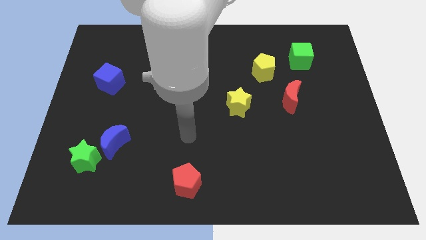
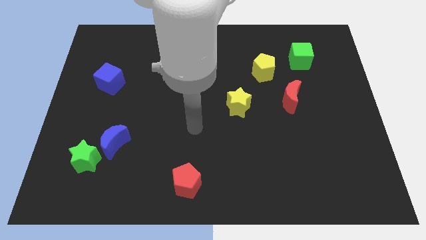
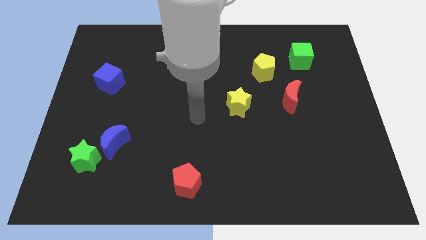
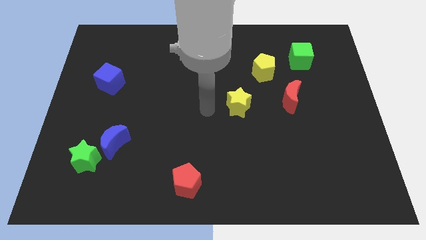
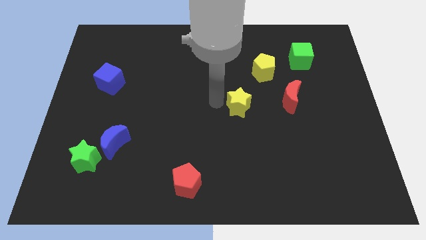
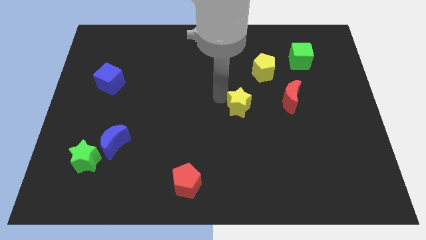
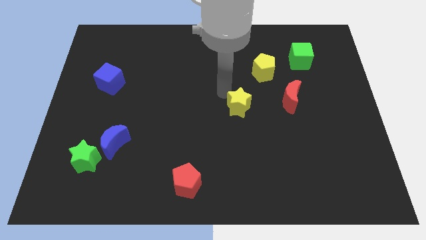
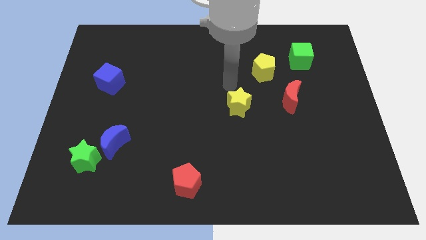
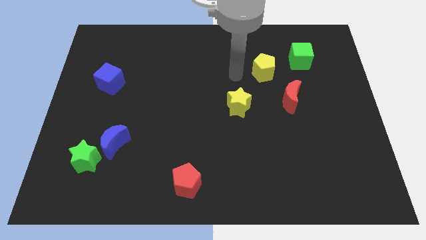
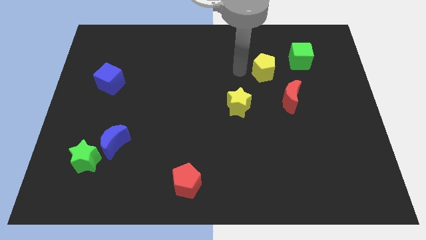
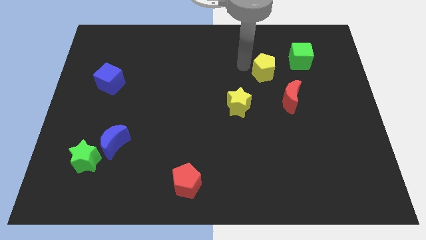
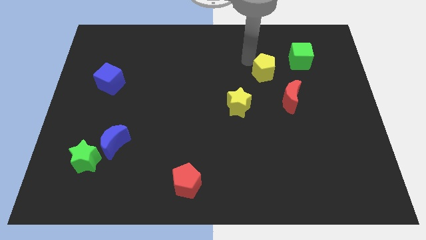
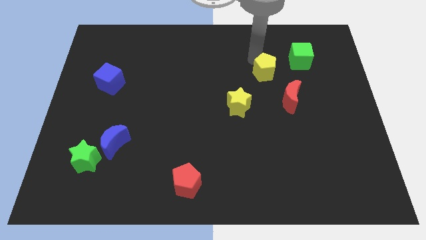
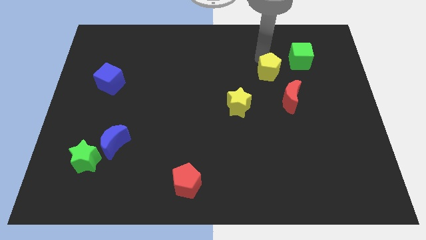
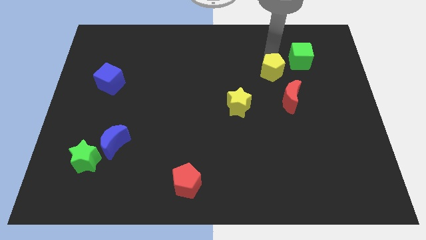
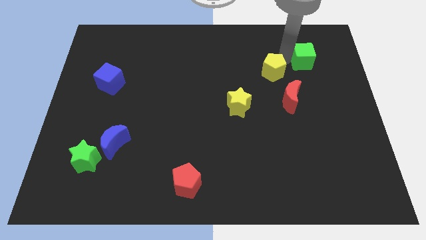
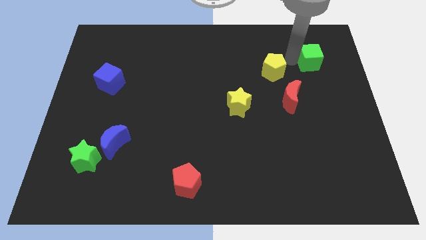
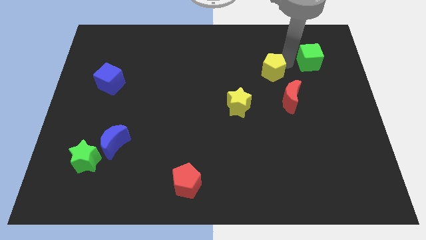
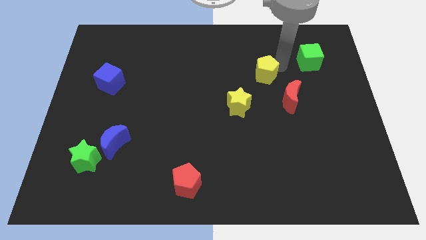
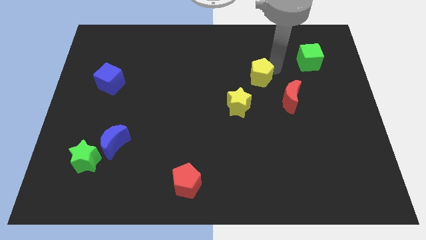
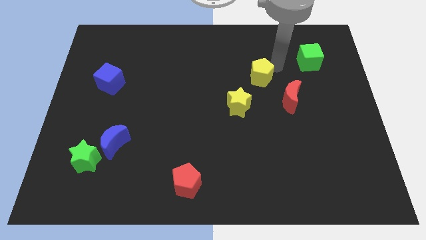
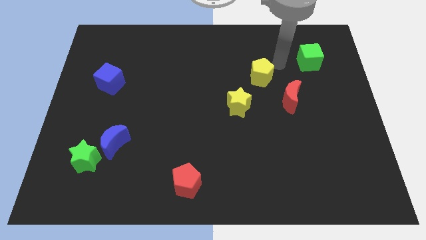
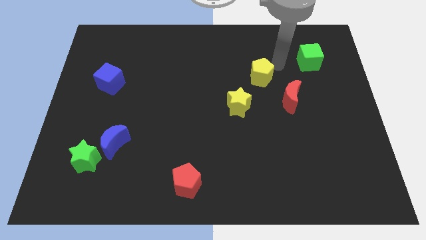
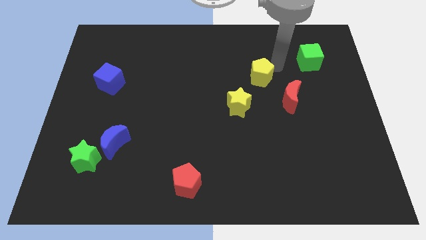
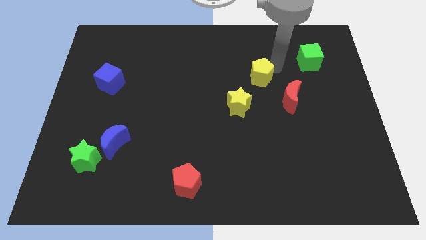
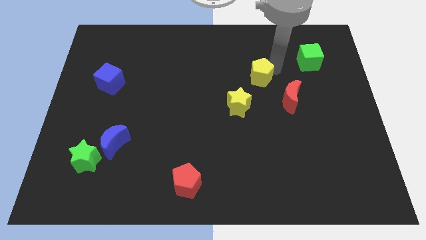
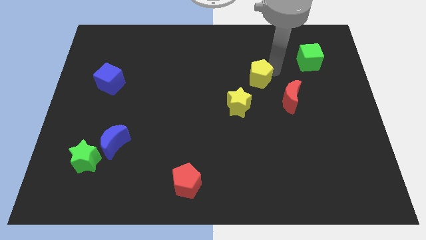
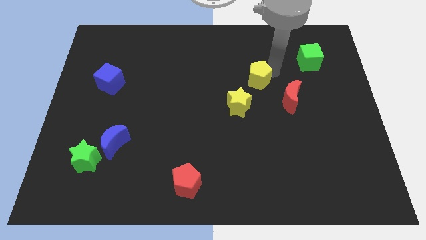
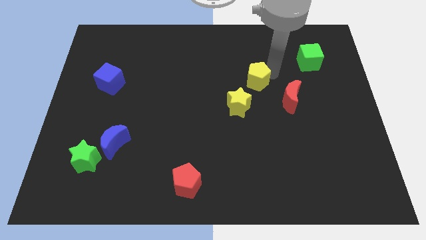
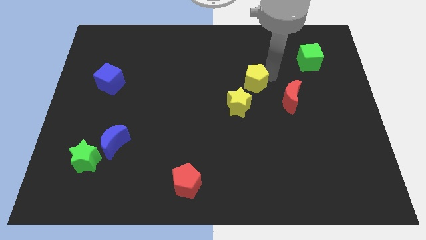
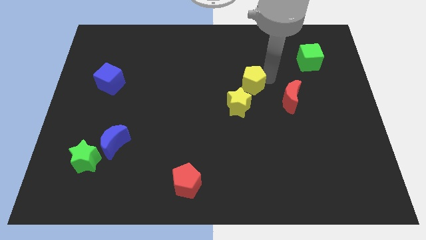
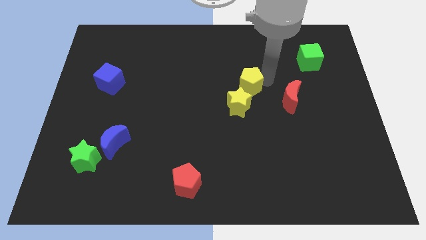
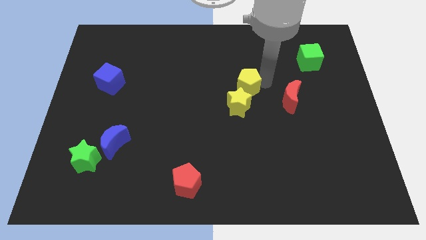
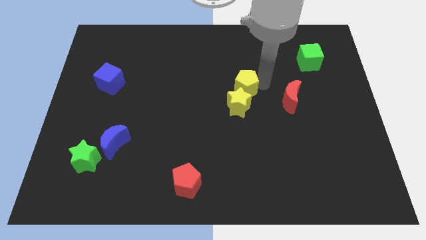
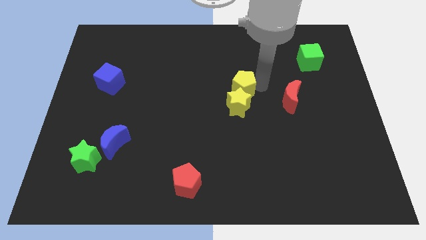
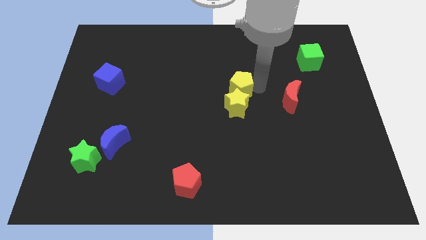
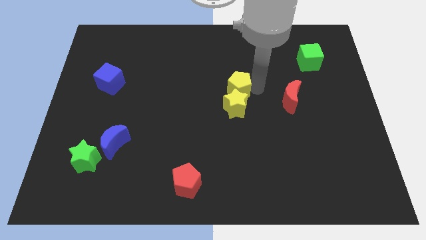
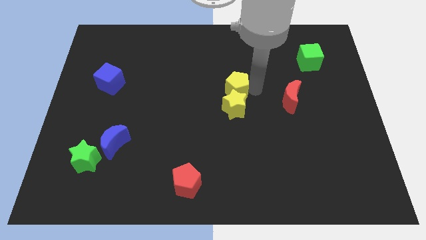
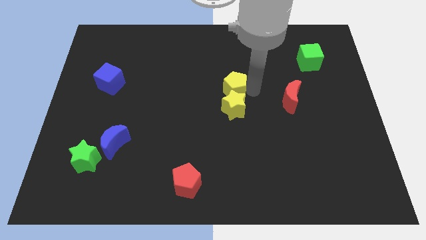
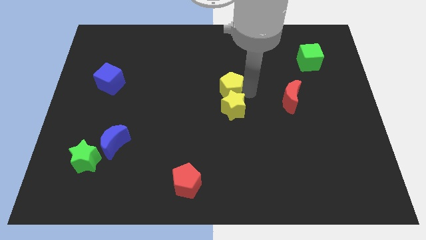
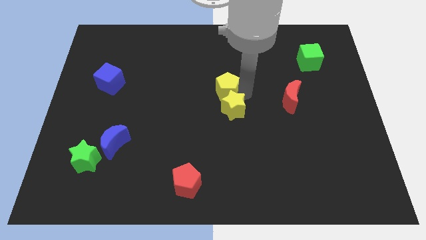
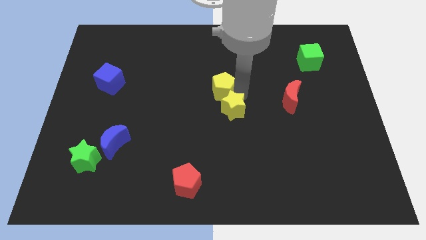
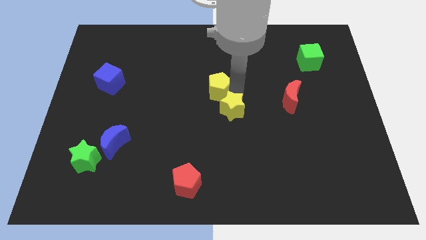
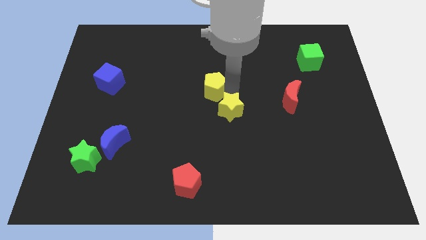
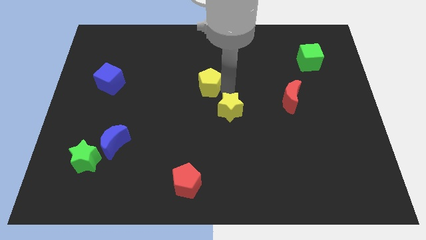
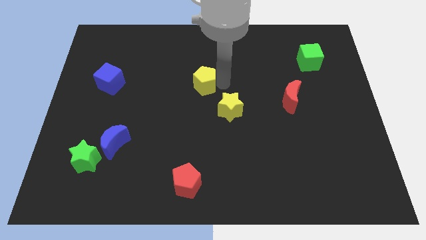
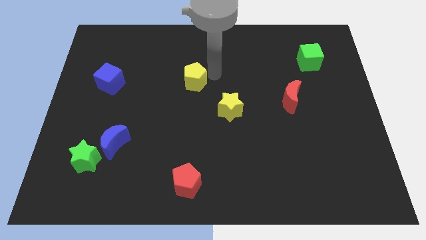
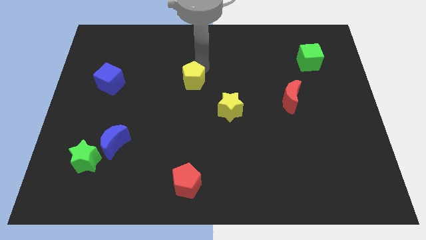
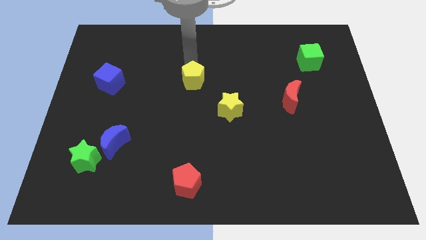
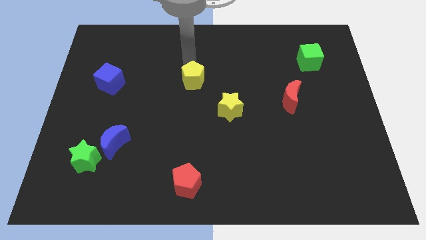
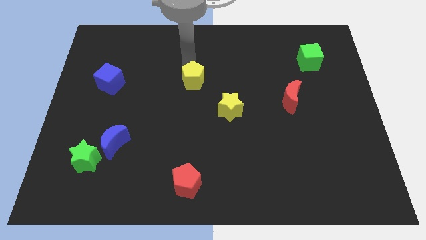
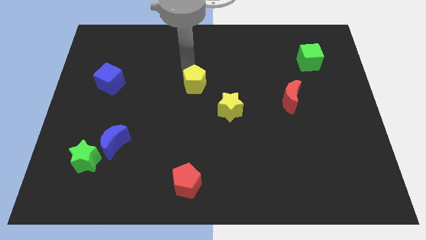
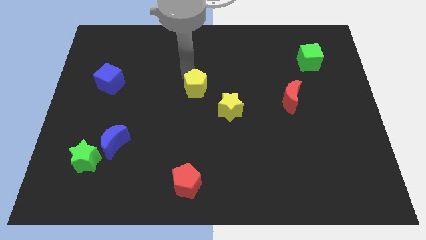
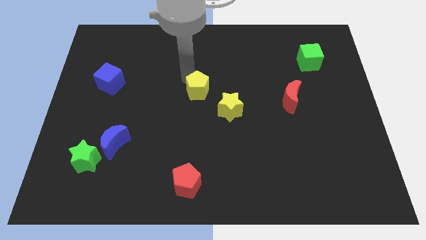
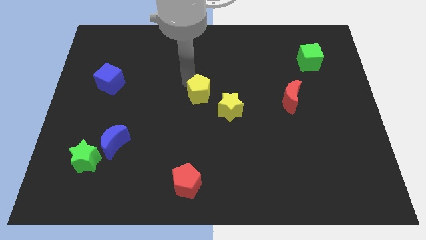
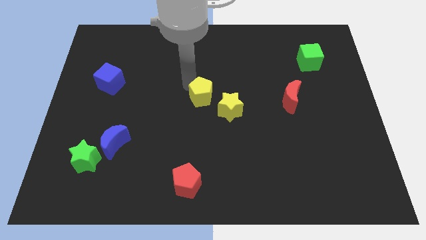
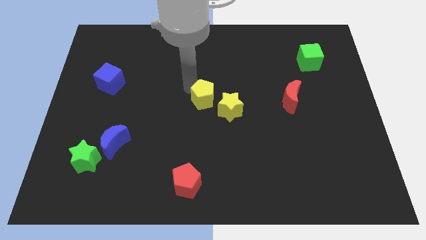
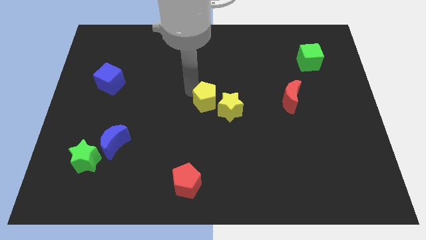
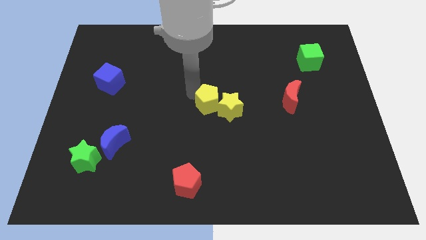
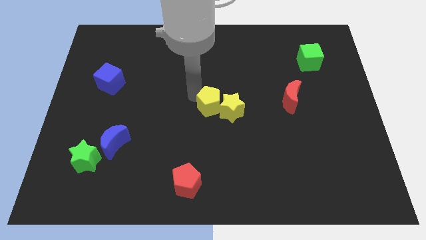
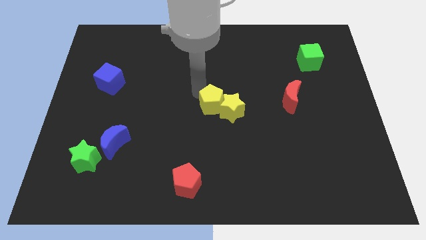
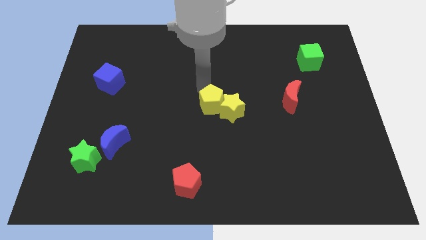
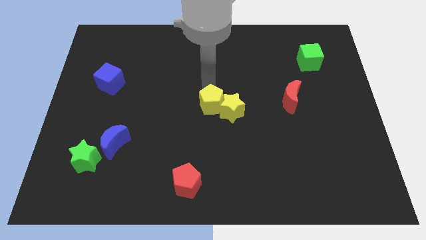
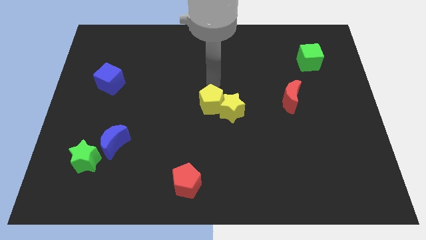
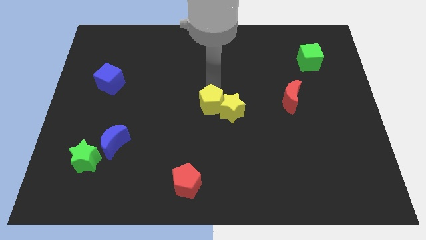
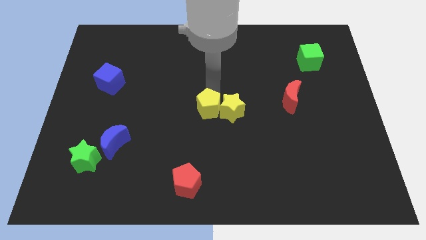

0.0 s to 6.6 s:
put the yellow pentagon diagonally down and to the left of the yellow star

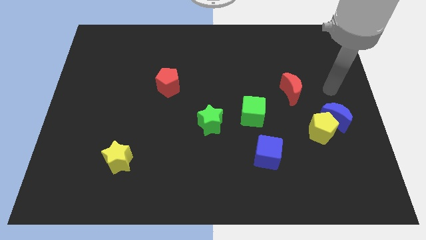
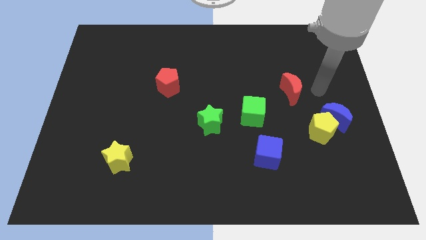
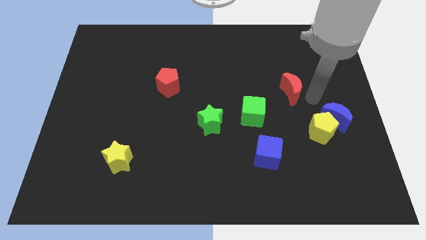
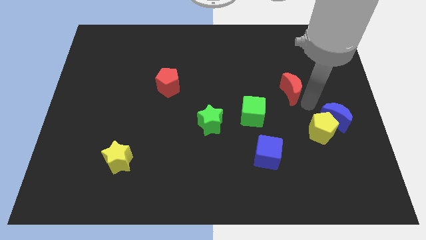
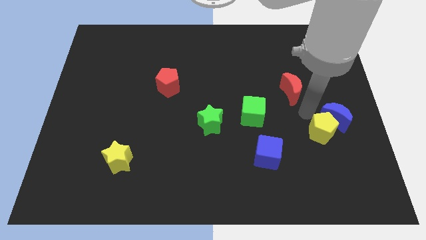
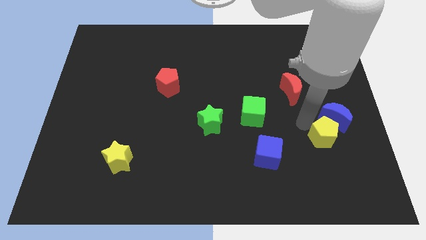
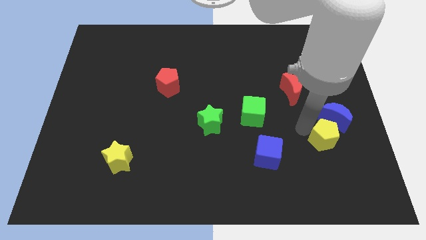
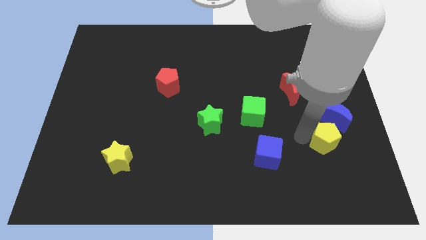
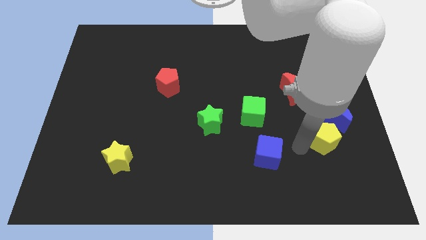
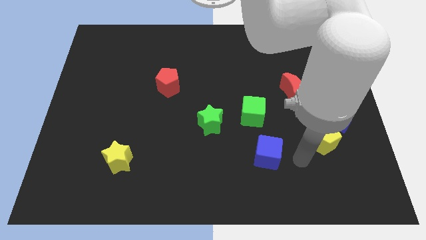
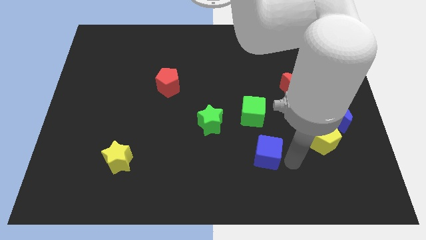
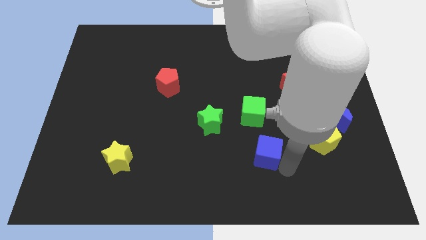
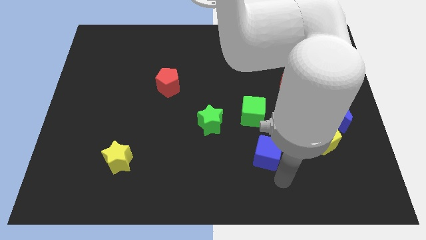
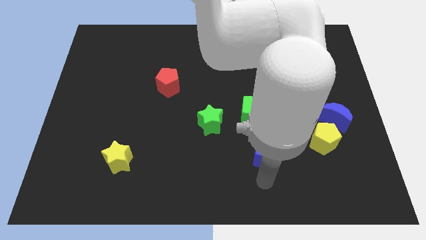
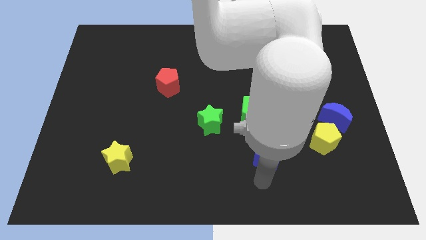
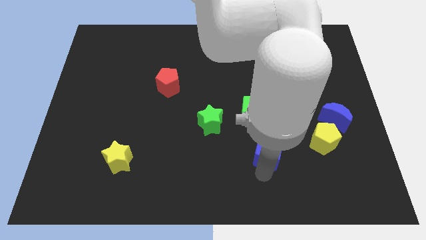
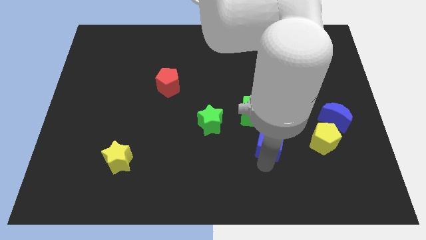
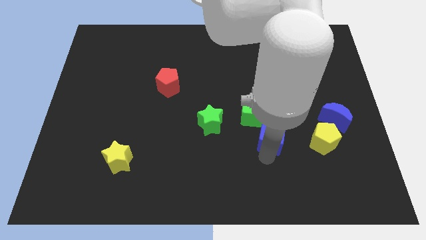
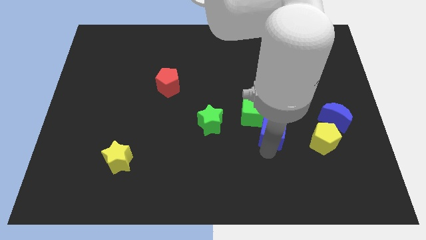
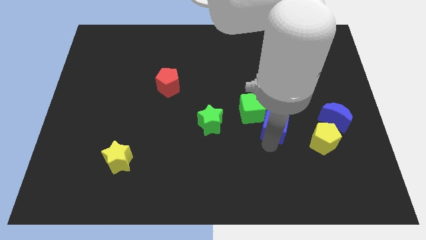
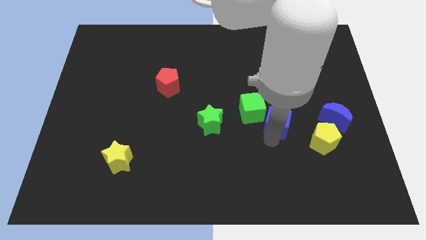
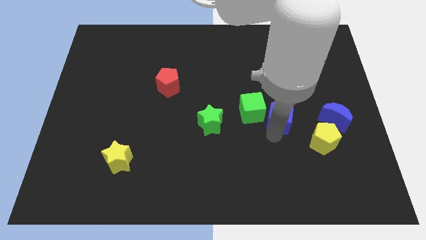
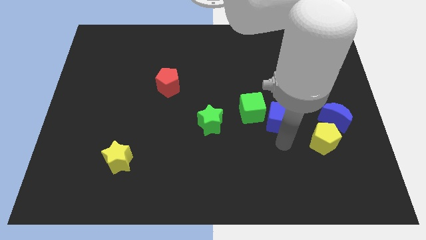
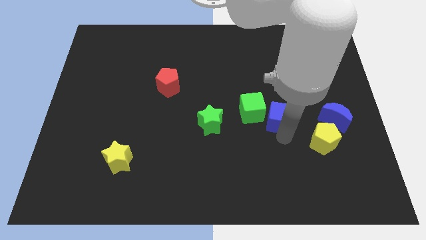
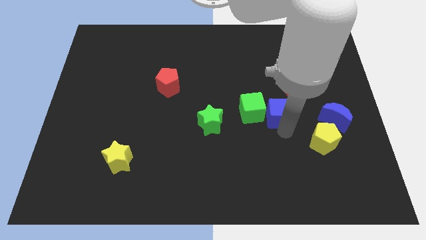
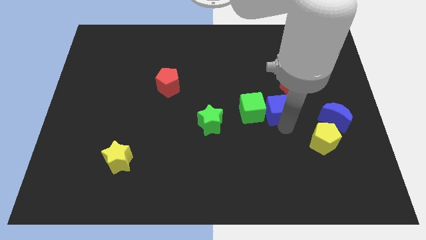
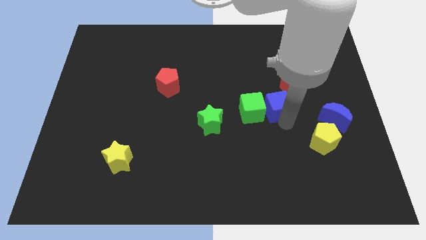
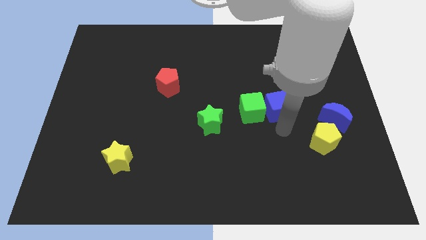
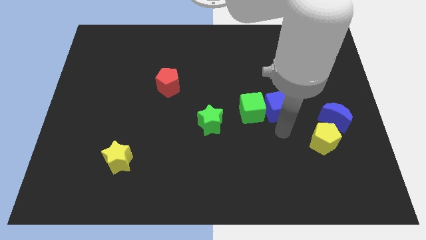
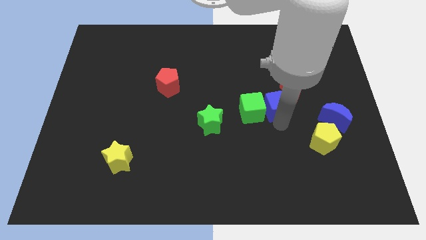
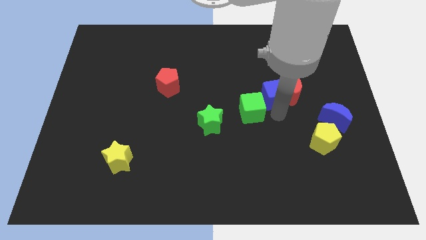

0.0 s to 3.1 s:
push the blue cube diagonally up and to the left of the red moon
